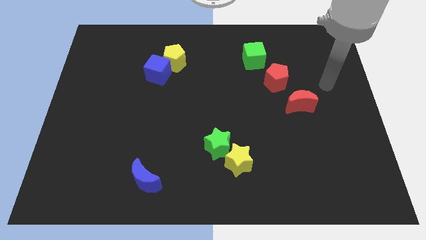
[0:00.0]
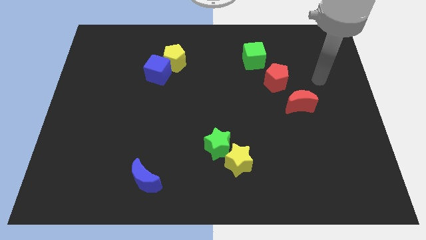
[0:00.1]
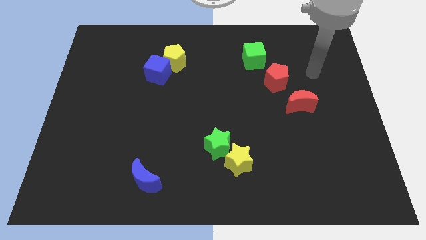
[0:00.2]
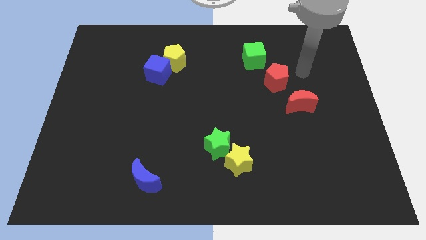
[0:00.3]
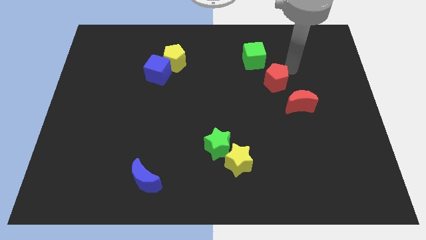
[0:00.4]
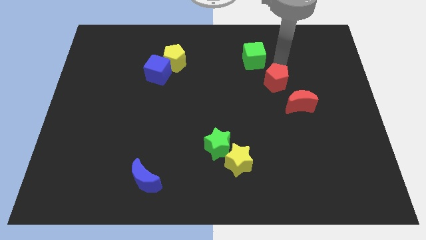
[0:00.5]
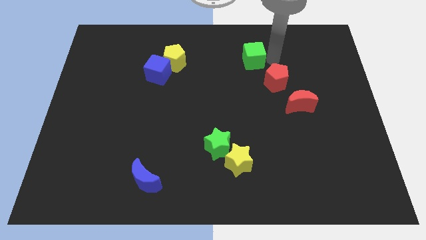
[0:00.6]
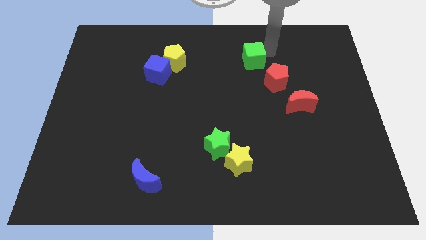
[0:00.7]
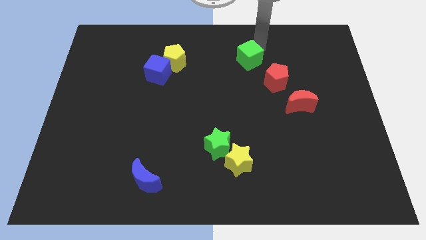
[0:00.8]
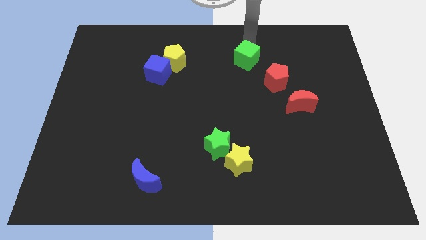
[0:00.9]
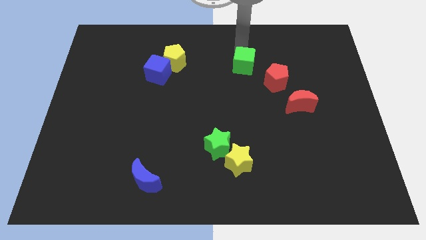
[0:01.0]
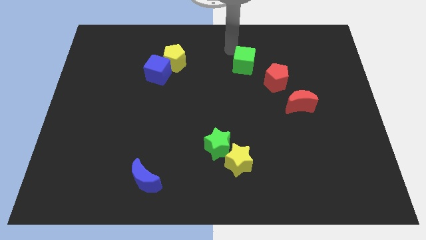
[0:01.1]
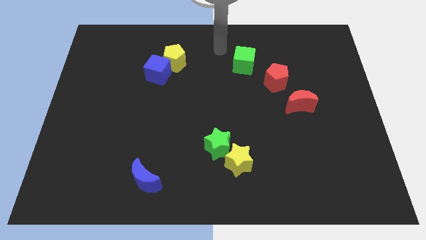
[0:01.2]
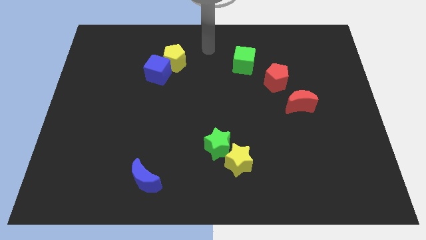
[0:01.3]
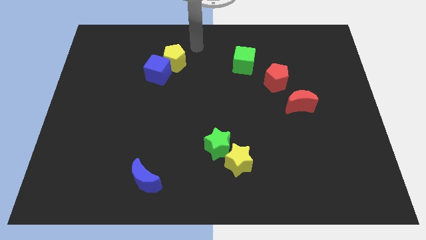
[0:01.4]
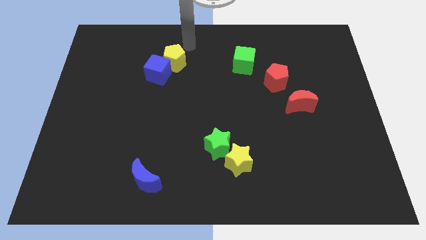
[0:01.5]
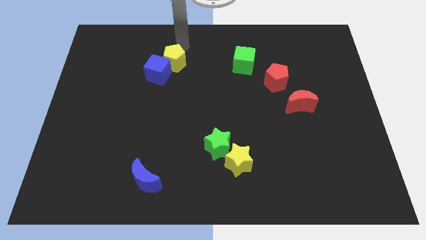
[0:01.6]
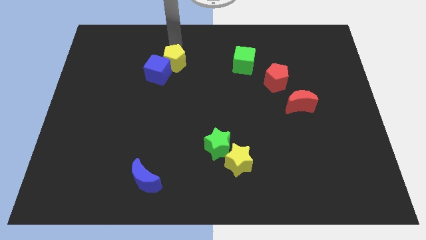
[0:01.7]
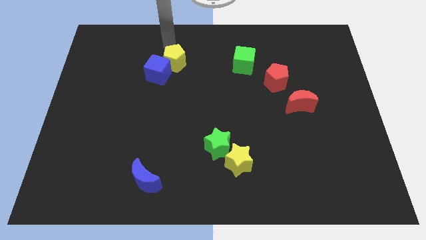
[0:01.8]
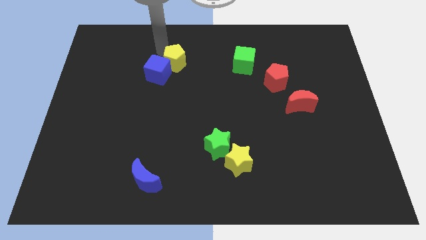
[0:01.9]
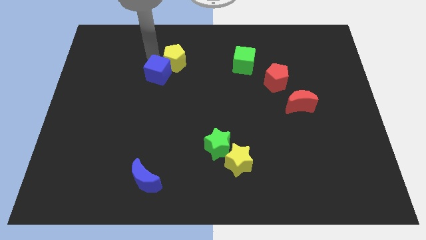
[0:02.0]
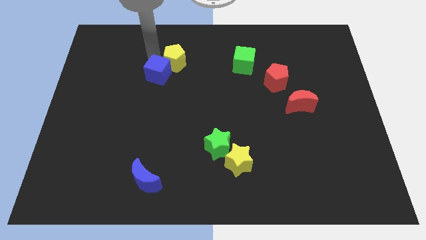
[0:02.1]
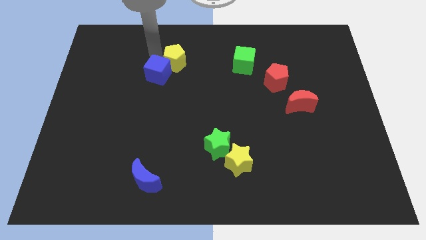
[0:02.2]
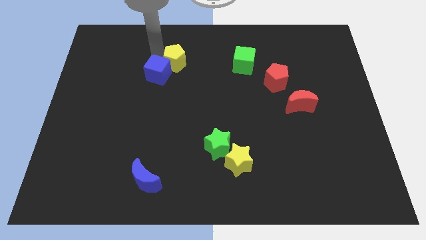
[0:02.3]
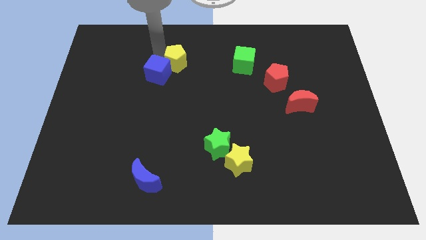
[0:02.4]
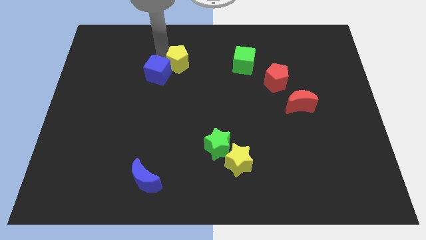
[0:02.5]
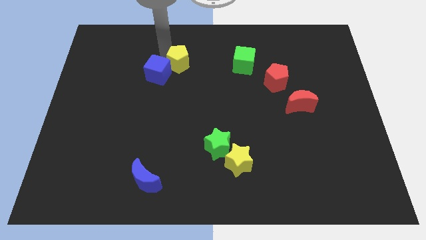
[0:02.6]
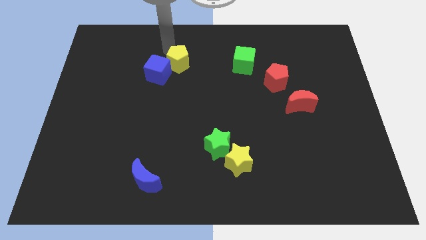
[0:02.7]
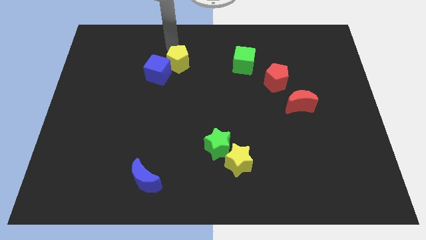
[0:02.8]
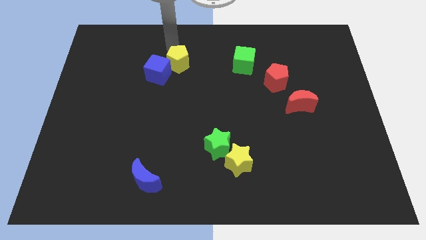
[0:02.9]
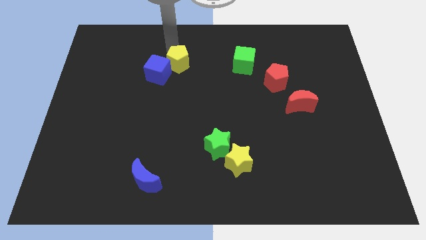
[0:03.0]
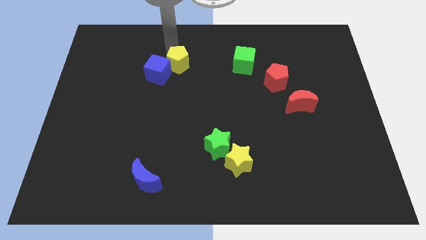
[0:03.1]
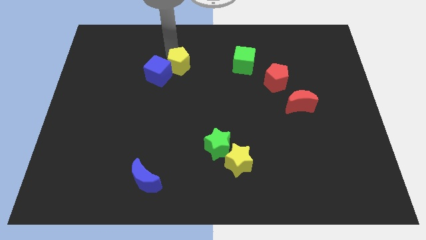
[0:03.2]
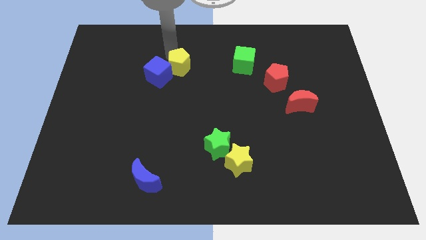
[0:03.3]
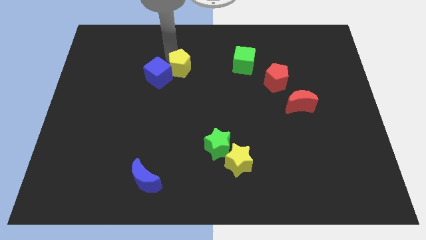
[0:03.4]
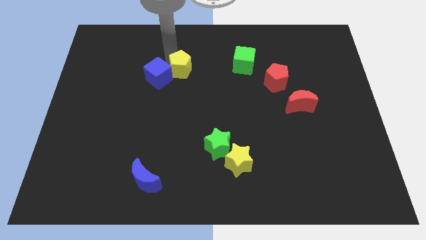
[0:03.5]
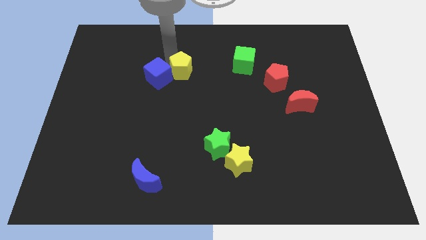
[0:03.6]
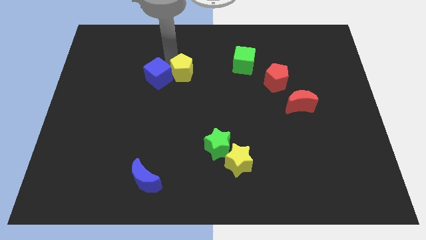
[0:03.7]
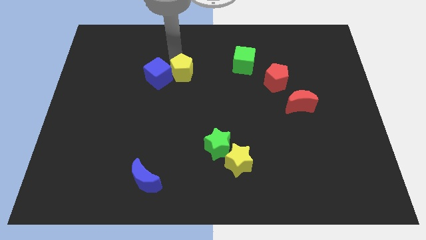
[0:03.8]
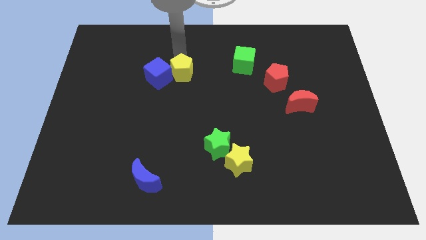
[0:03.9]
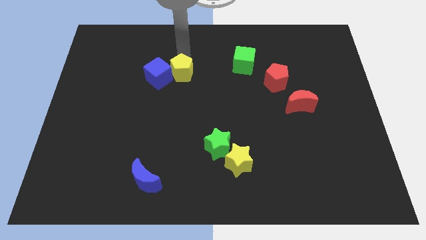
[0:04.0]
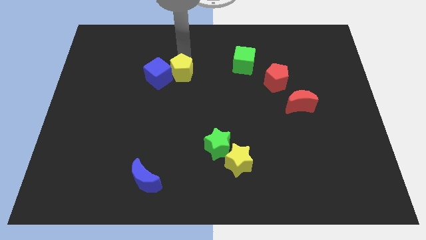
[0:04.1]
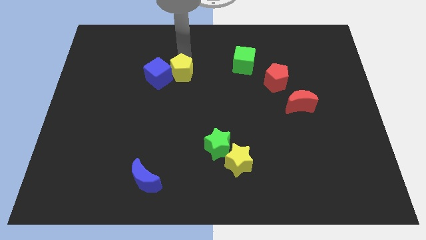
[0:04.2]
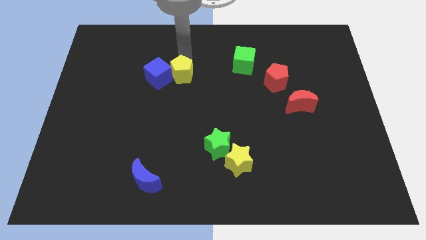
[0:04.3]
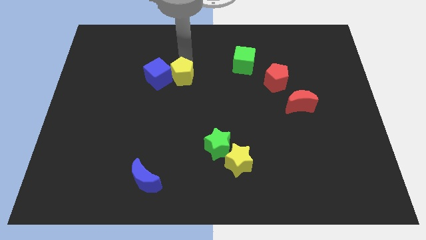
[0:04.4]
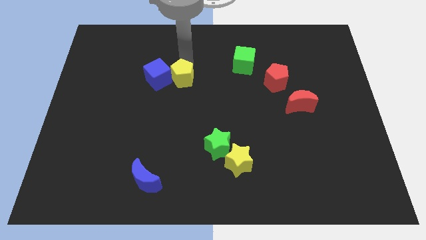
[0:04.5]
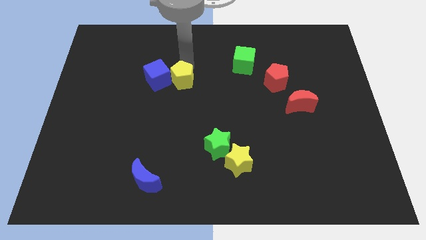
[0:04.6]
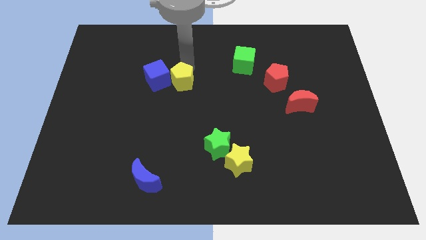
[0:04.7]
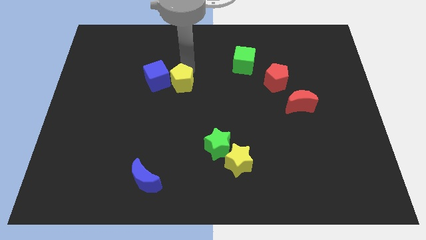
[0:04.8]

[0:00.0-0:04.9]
slide the yellow pentagon a little down

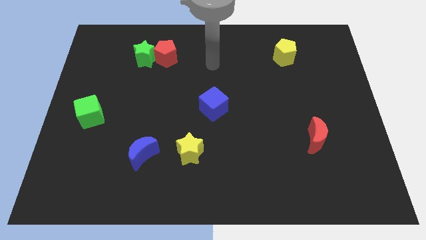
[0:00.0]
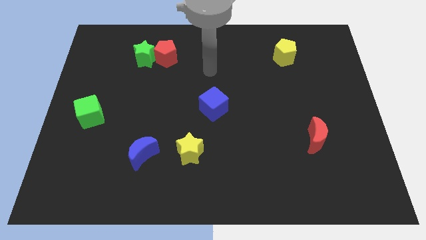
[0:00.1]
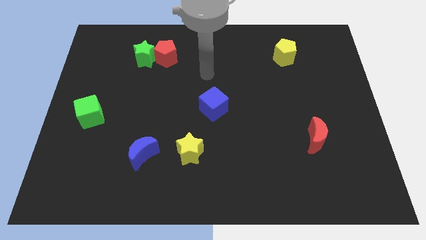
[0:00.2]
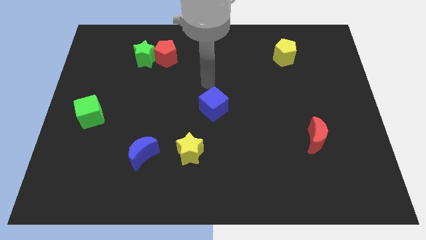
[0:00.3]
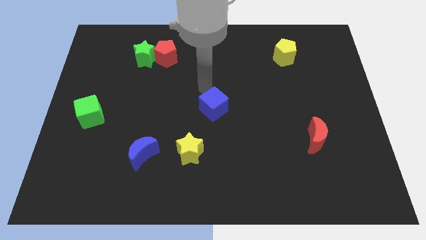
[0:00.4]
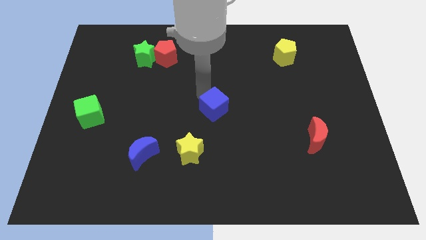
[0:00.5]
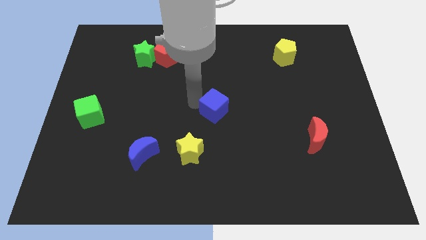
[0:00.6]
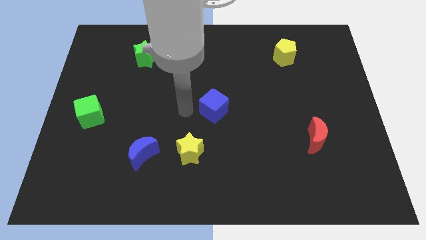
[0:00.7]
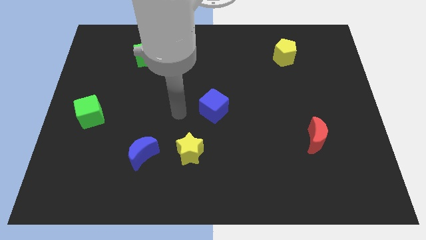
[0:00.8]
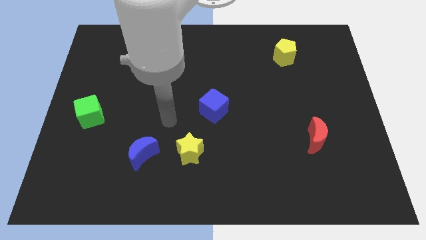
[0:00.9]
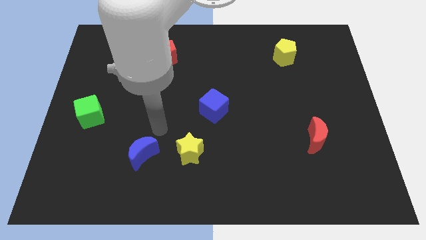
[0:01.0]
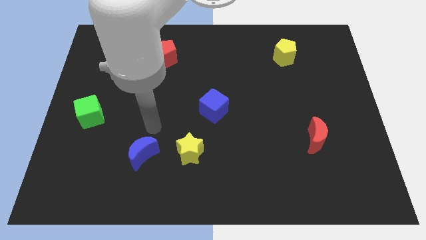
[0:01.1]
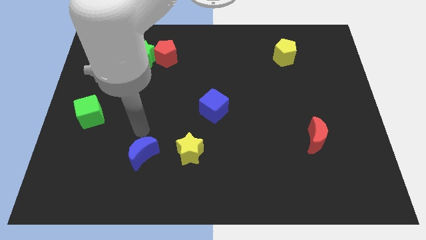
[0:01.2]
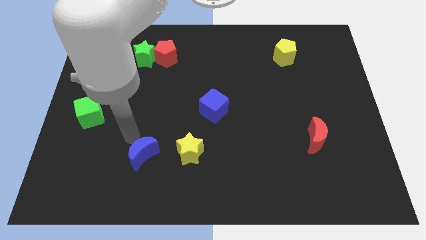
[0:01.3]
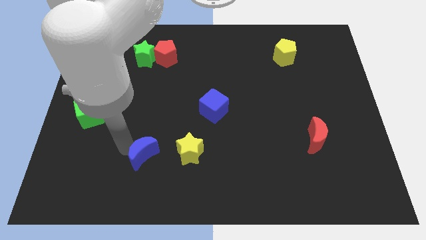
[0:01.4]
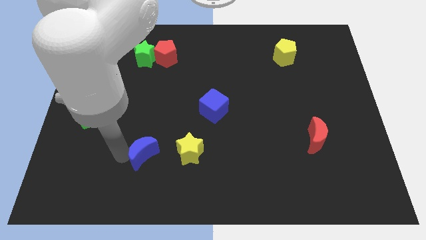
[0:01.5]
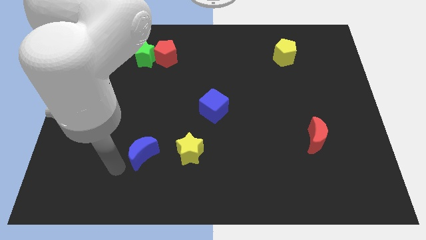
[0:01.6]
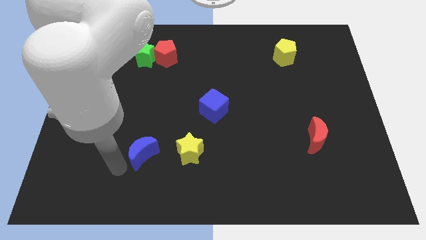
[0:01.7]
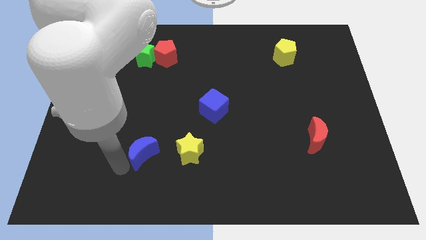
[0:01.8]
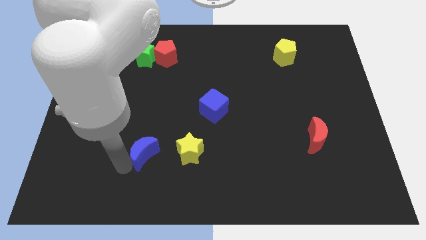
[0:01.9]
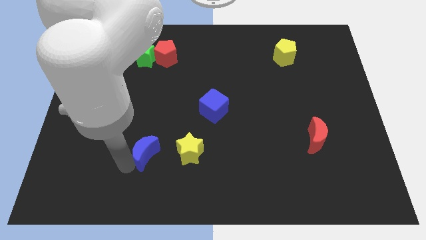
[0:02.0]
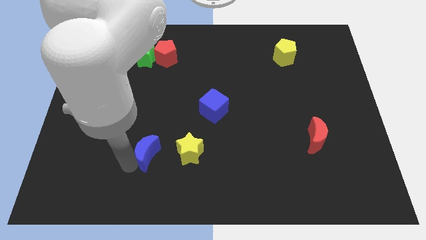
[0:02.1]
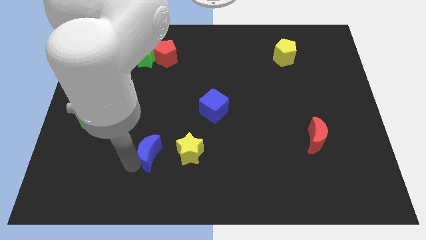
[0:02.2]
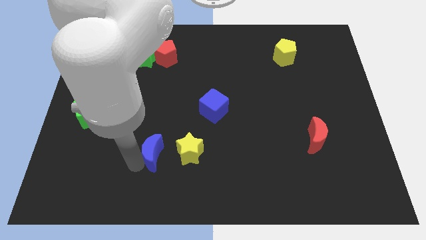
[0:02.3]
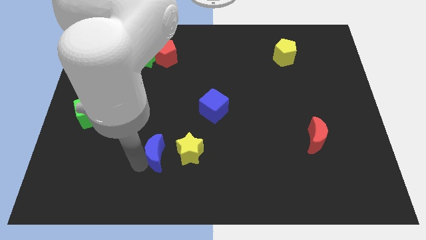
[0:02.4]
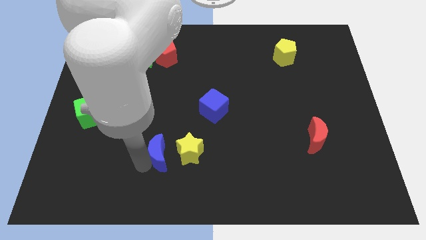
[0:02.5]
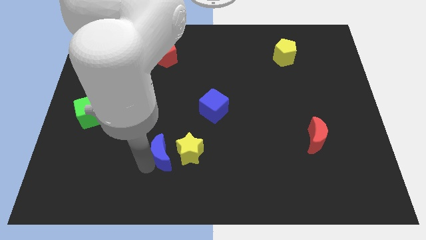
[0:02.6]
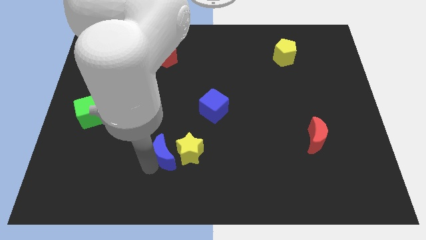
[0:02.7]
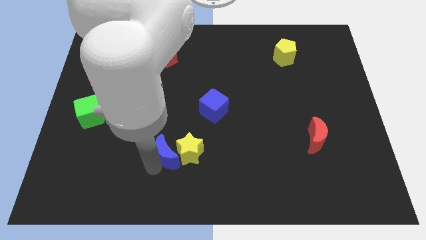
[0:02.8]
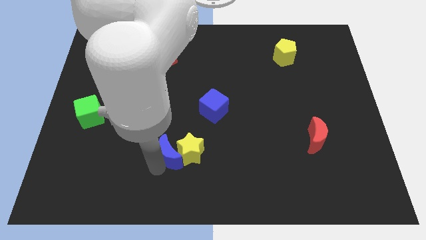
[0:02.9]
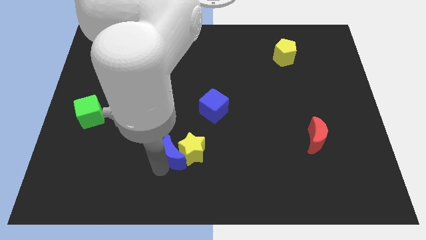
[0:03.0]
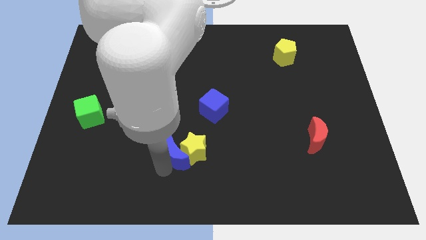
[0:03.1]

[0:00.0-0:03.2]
move the blue moon to the right a little
